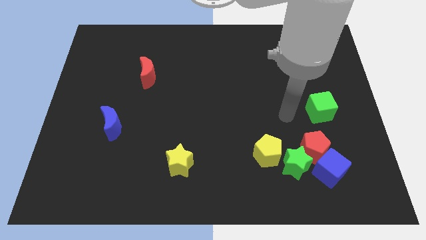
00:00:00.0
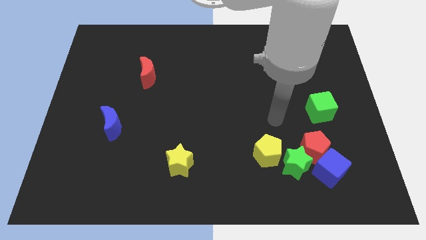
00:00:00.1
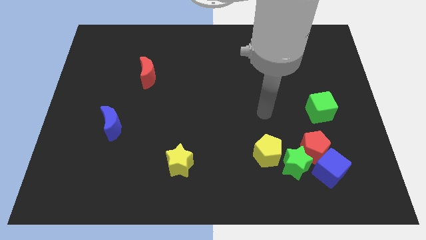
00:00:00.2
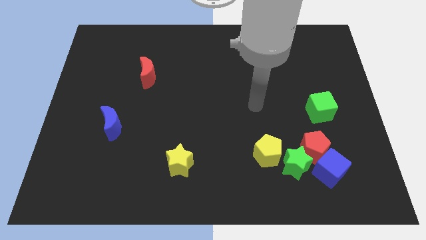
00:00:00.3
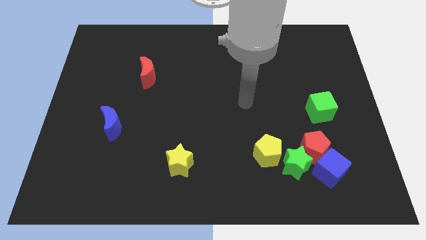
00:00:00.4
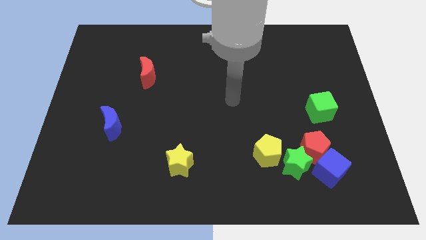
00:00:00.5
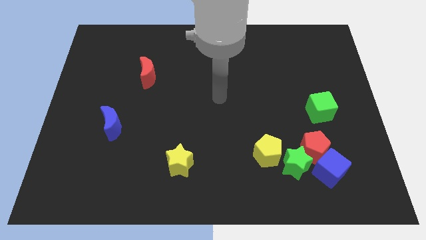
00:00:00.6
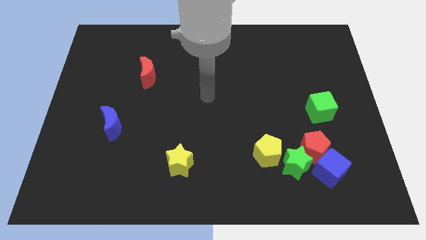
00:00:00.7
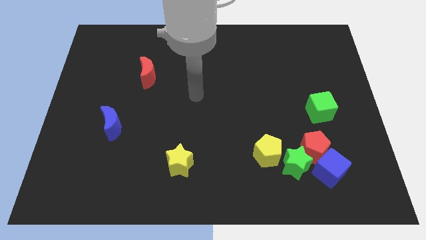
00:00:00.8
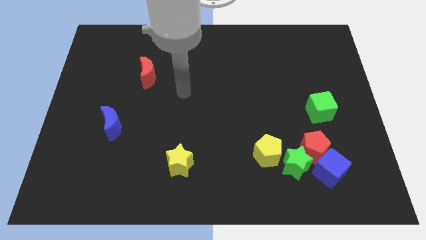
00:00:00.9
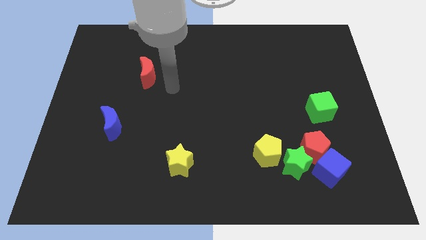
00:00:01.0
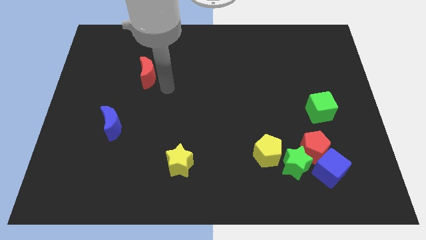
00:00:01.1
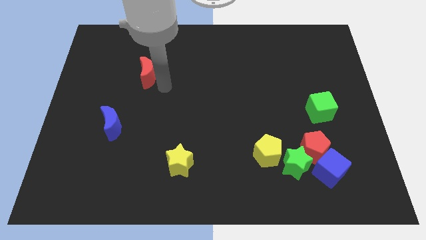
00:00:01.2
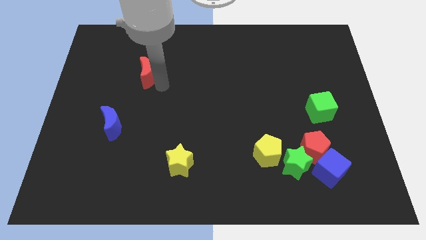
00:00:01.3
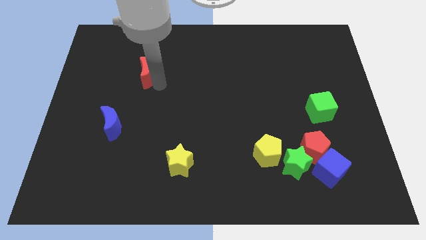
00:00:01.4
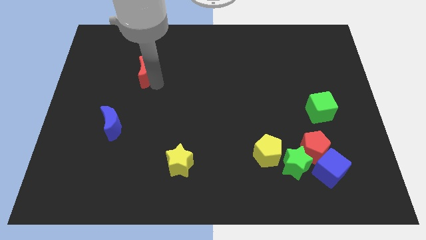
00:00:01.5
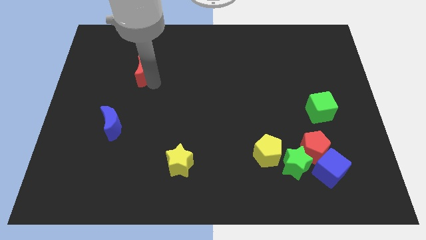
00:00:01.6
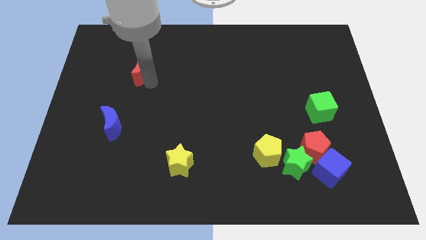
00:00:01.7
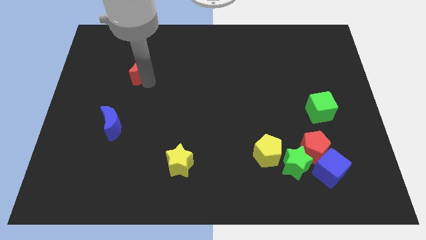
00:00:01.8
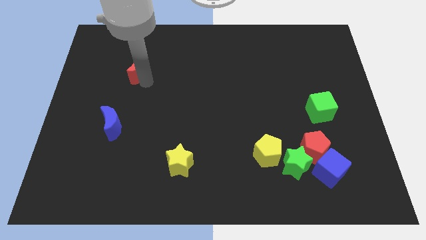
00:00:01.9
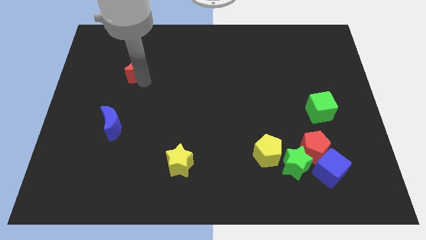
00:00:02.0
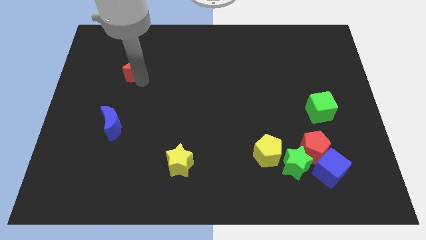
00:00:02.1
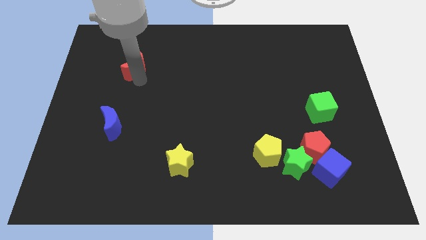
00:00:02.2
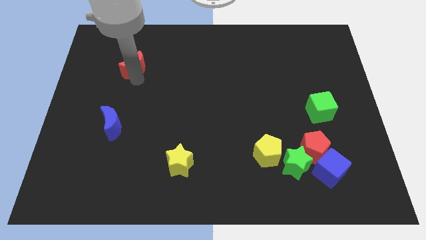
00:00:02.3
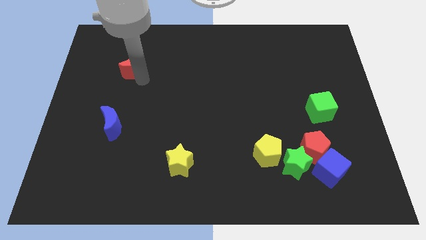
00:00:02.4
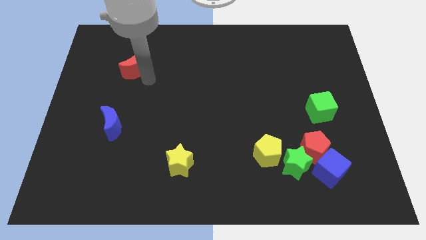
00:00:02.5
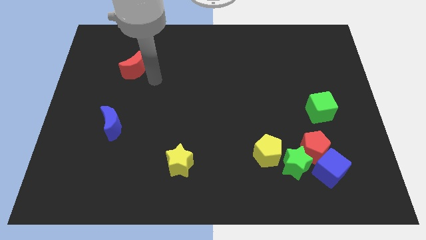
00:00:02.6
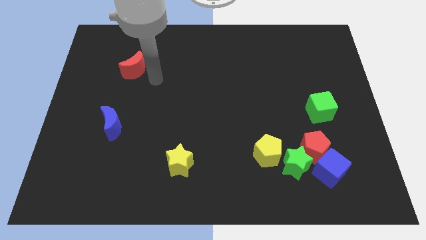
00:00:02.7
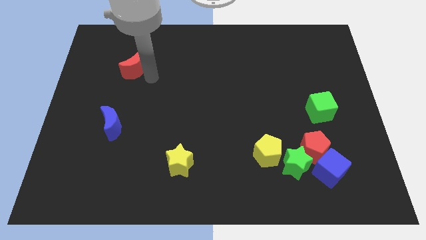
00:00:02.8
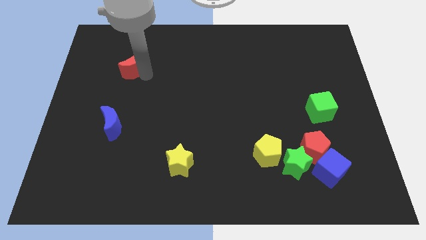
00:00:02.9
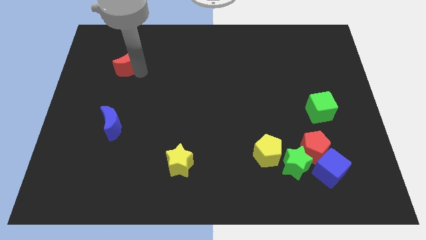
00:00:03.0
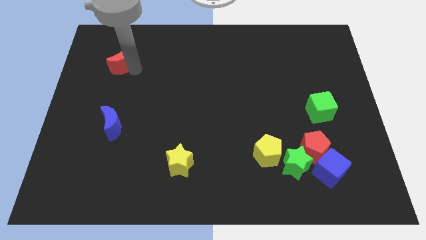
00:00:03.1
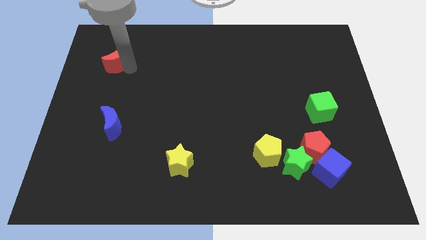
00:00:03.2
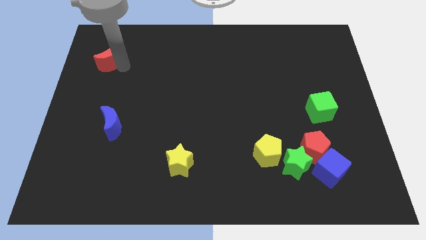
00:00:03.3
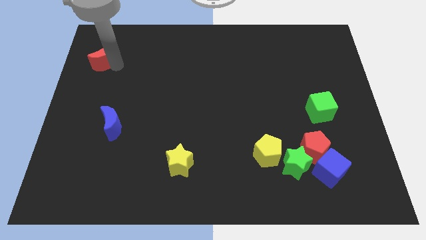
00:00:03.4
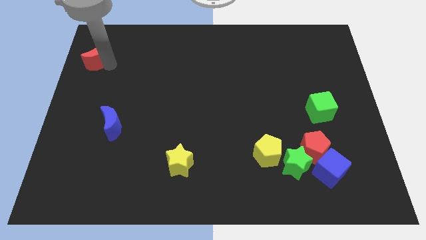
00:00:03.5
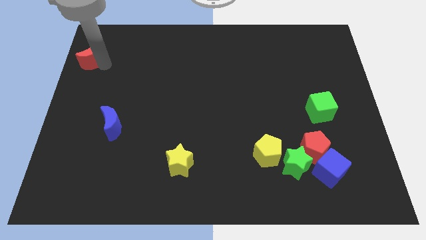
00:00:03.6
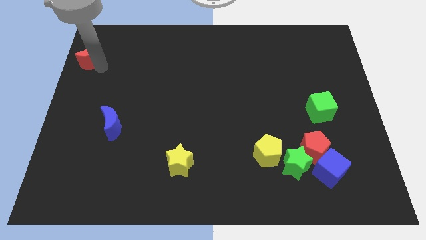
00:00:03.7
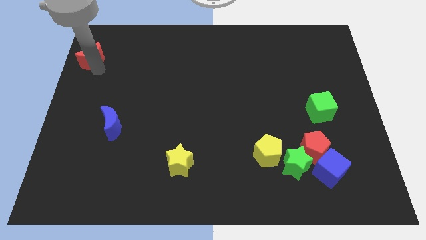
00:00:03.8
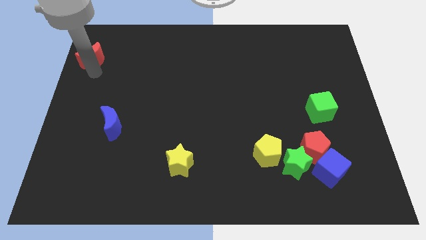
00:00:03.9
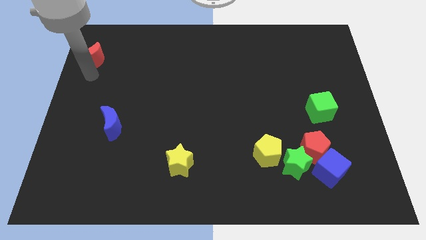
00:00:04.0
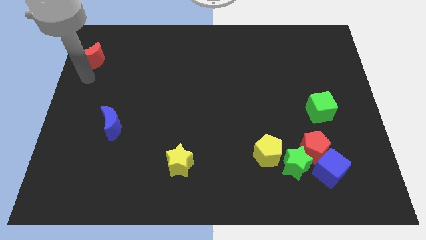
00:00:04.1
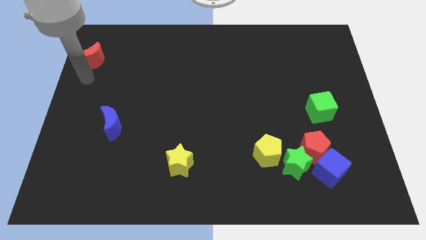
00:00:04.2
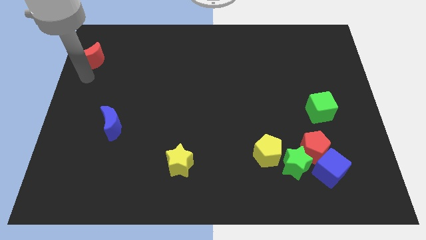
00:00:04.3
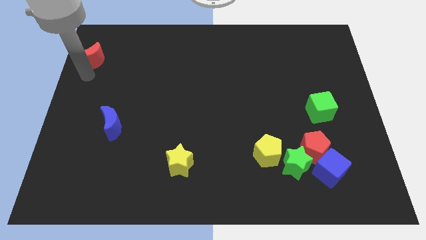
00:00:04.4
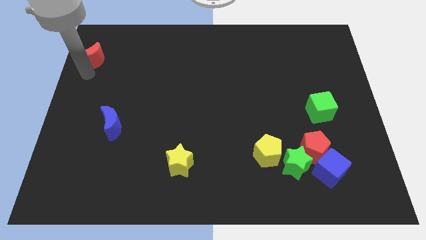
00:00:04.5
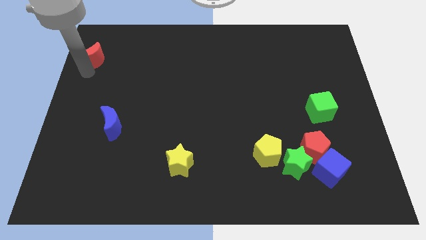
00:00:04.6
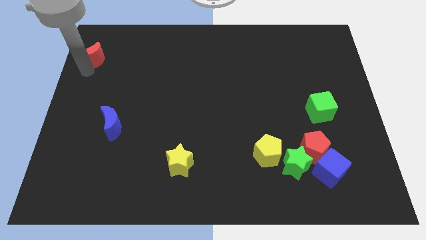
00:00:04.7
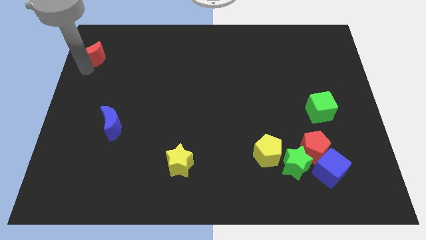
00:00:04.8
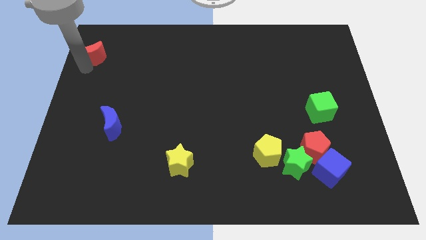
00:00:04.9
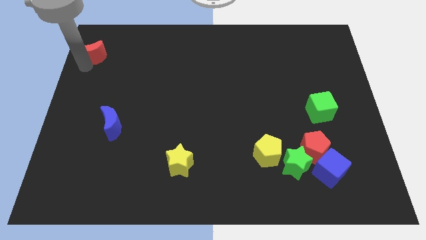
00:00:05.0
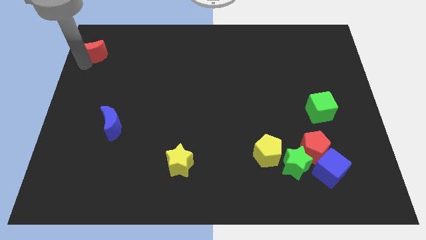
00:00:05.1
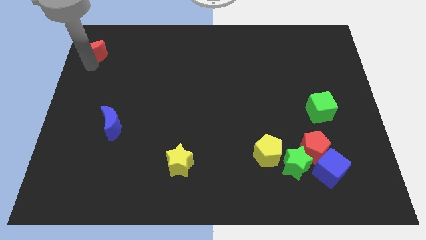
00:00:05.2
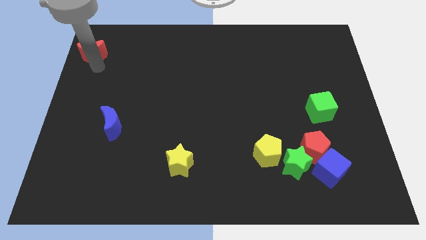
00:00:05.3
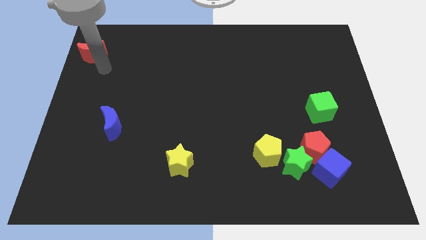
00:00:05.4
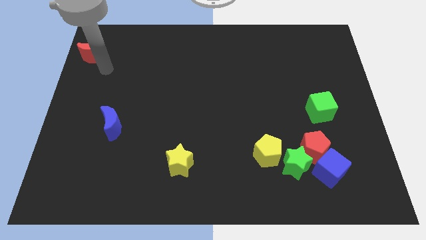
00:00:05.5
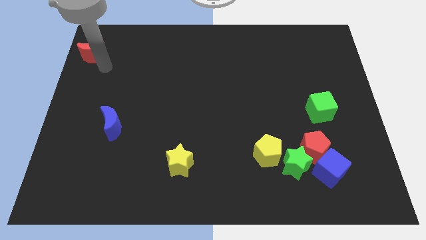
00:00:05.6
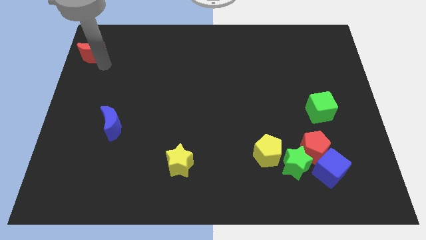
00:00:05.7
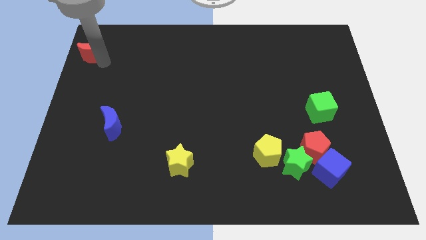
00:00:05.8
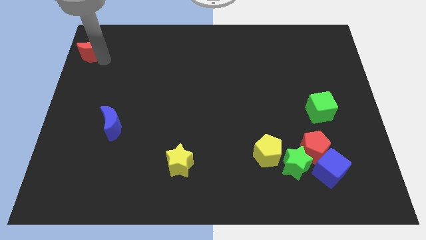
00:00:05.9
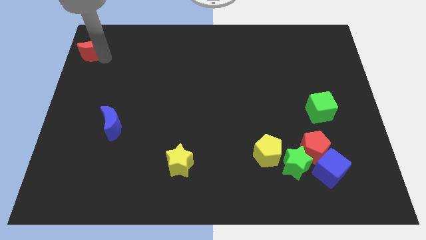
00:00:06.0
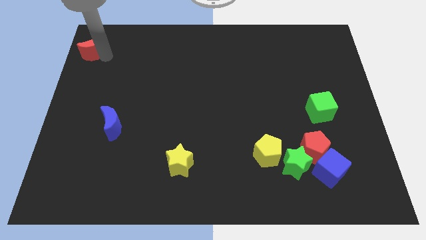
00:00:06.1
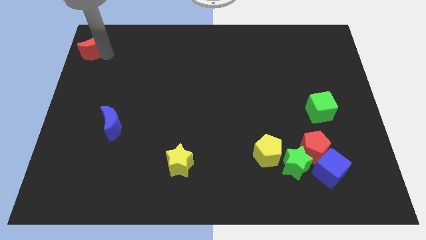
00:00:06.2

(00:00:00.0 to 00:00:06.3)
slide the red moon to the top left corner
